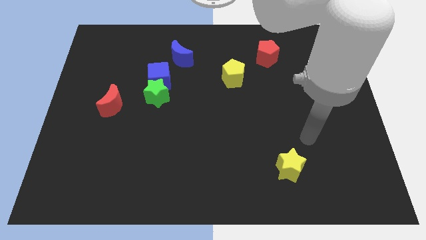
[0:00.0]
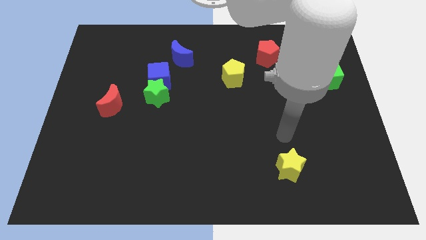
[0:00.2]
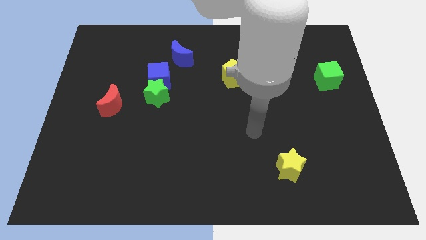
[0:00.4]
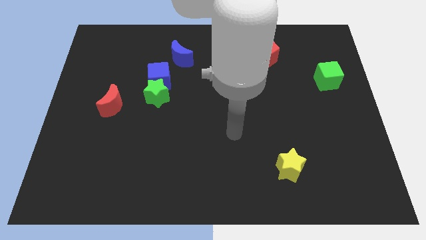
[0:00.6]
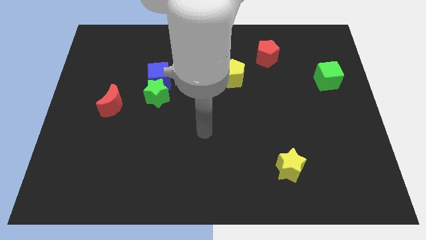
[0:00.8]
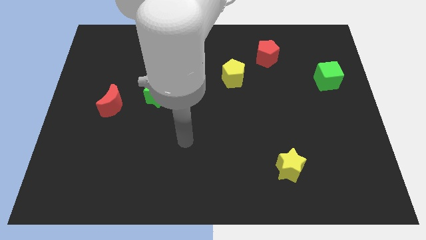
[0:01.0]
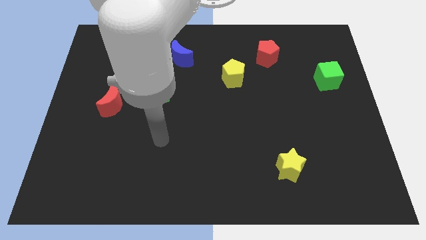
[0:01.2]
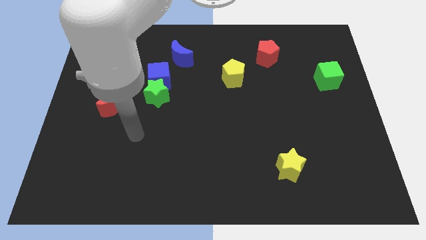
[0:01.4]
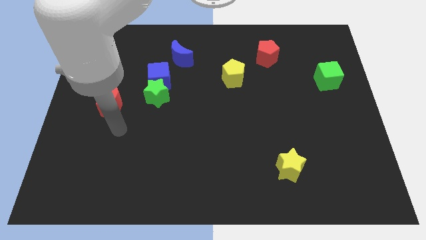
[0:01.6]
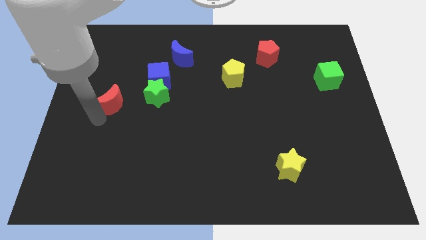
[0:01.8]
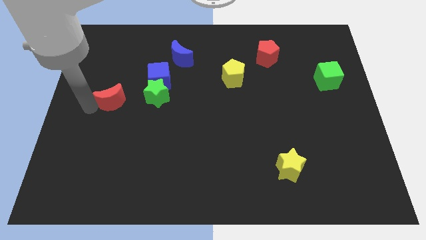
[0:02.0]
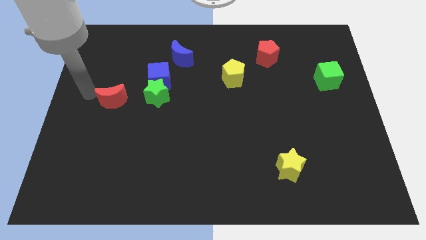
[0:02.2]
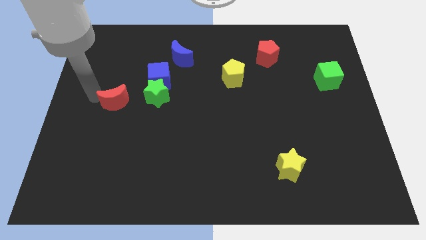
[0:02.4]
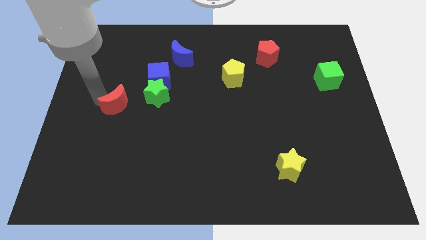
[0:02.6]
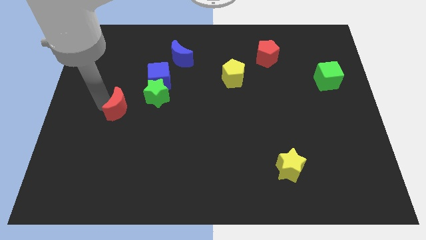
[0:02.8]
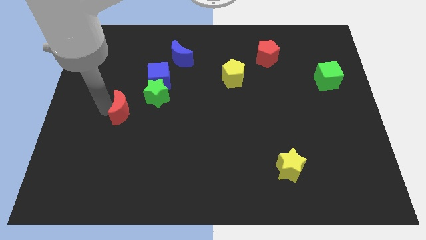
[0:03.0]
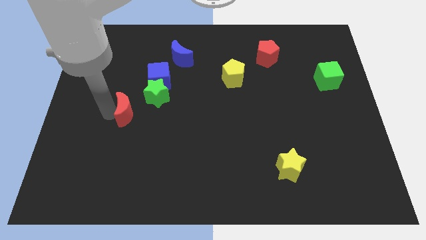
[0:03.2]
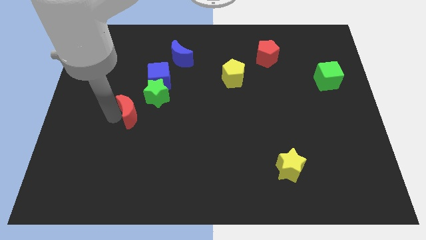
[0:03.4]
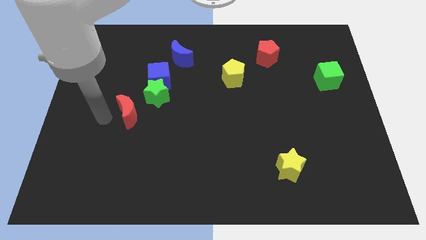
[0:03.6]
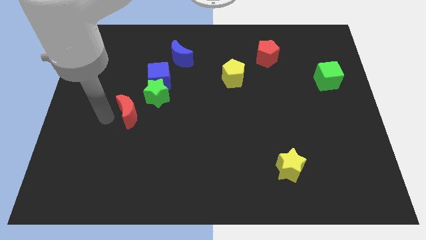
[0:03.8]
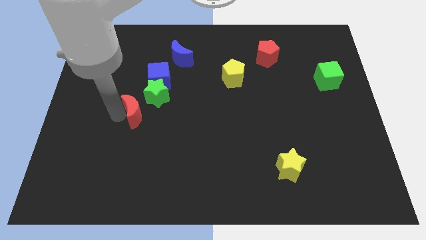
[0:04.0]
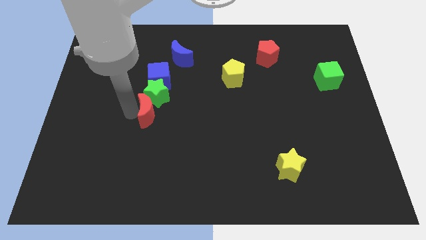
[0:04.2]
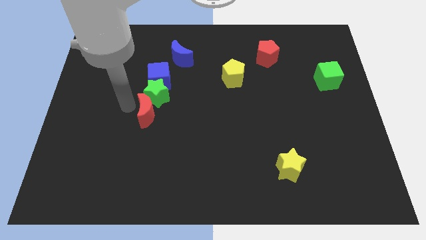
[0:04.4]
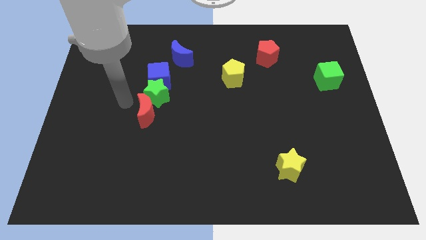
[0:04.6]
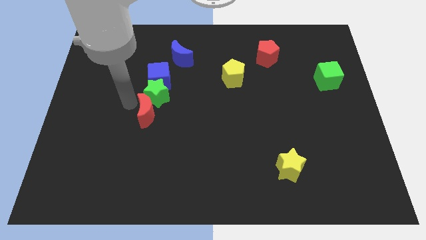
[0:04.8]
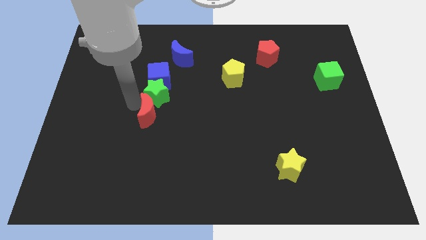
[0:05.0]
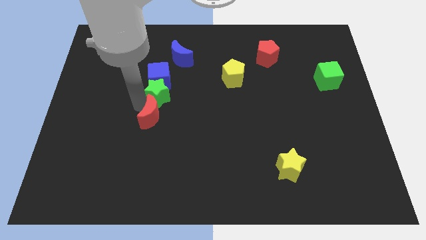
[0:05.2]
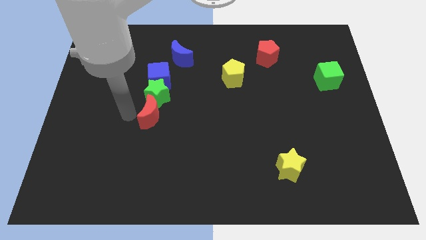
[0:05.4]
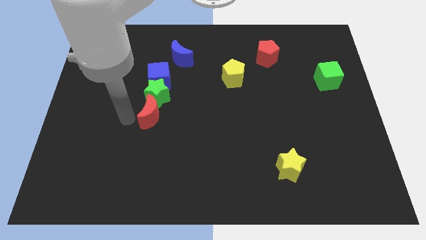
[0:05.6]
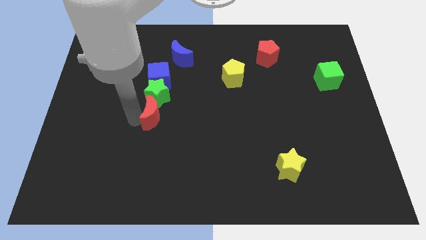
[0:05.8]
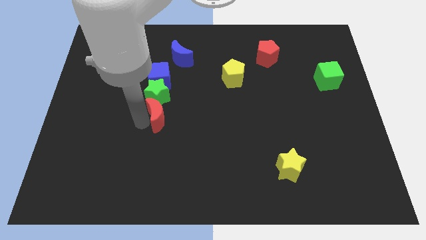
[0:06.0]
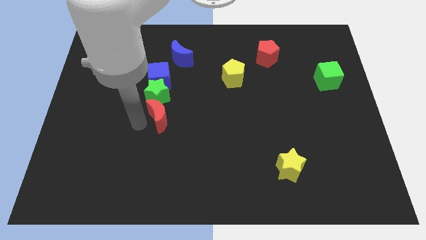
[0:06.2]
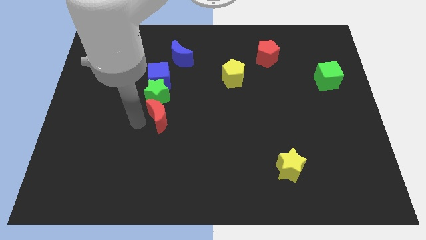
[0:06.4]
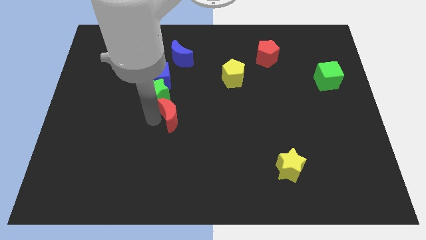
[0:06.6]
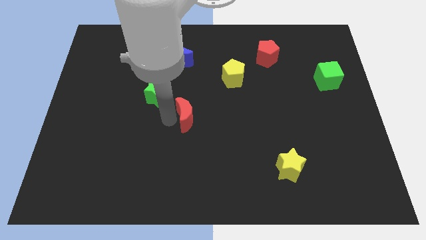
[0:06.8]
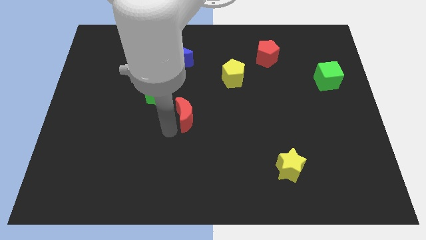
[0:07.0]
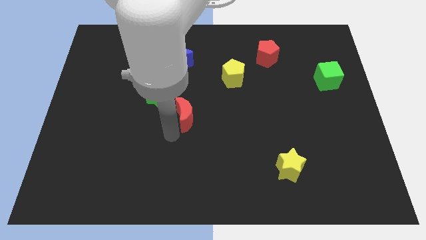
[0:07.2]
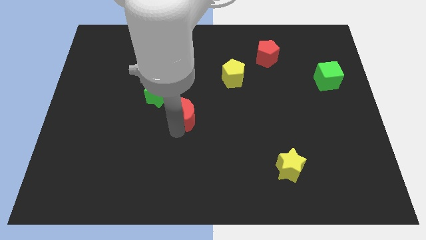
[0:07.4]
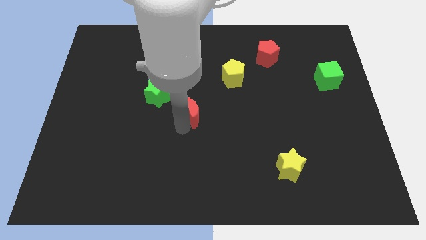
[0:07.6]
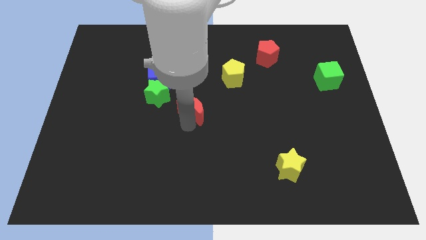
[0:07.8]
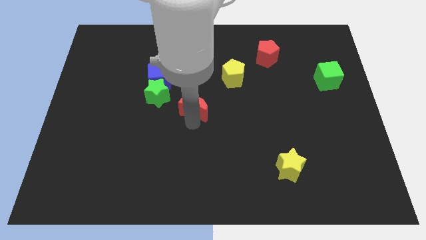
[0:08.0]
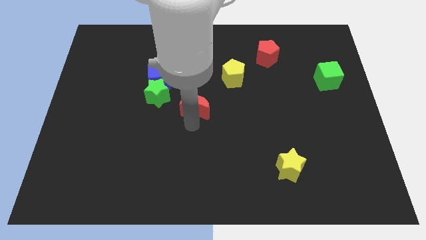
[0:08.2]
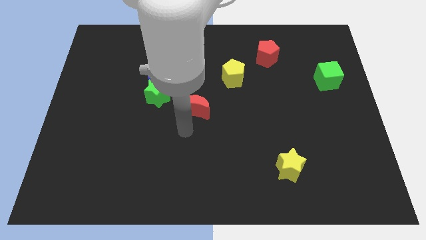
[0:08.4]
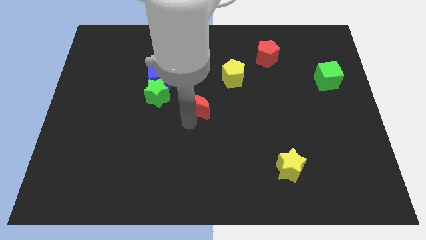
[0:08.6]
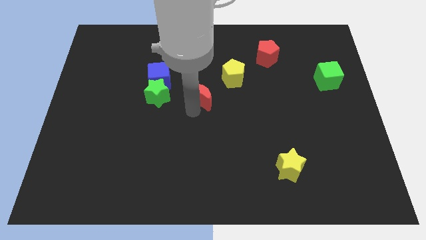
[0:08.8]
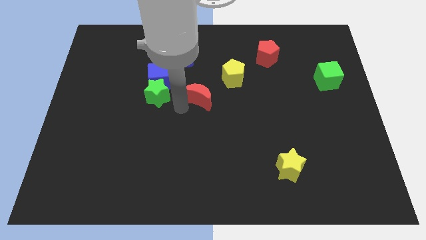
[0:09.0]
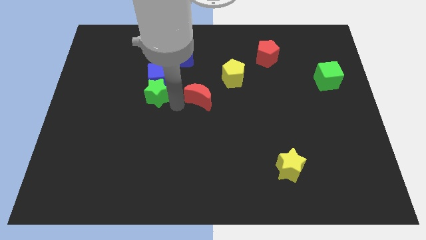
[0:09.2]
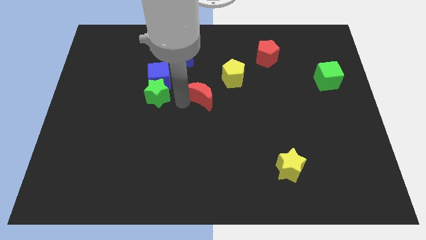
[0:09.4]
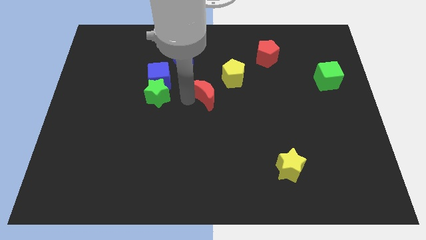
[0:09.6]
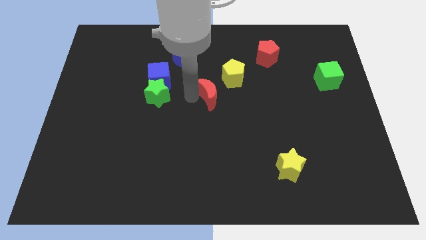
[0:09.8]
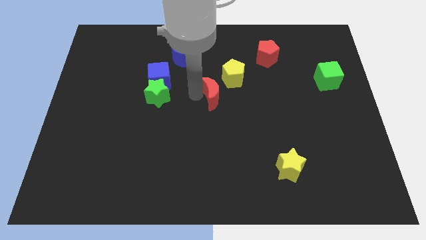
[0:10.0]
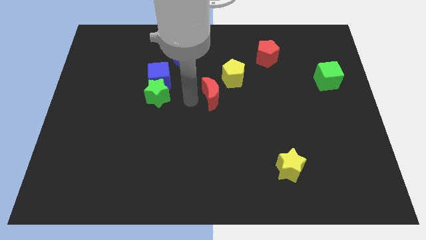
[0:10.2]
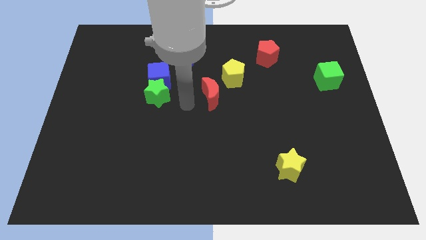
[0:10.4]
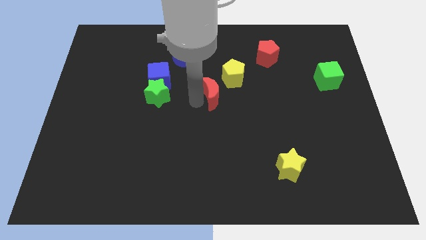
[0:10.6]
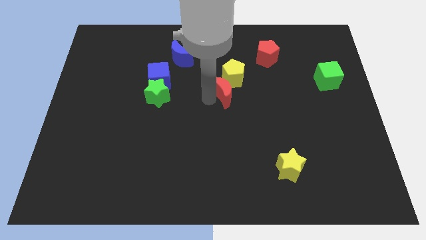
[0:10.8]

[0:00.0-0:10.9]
slide the red moon close to the yellow pentagon

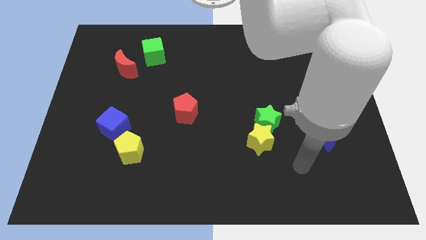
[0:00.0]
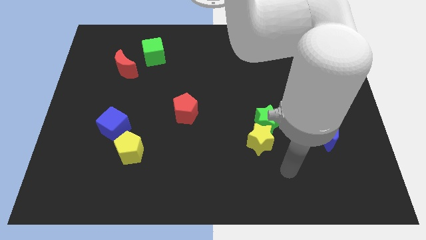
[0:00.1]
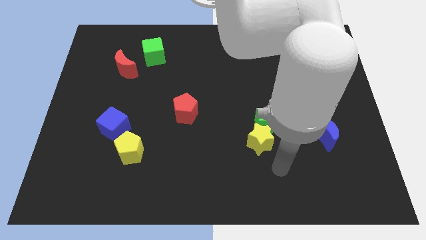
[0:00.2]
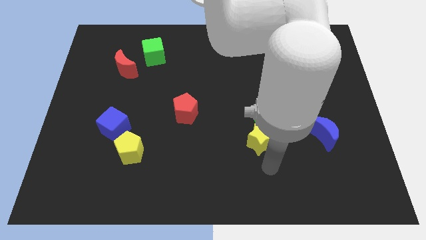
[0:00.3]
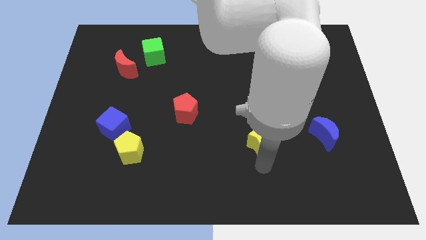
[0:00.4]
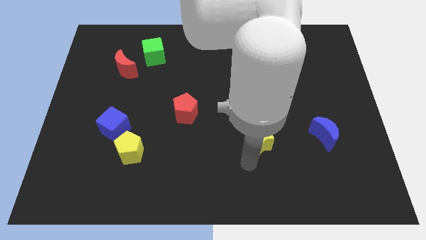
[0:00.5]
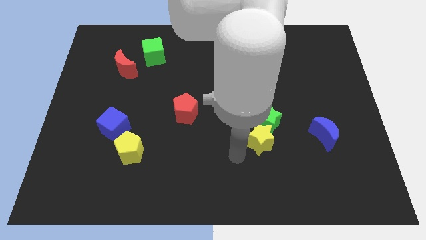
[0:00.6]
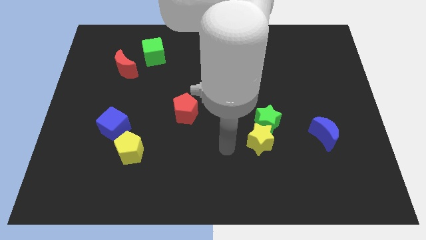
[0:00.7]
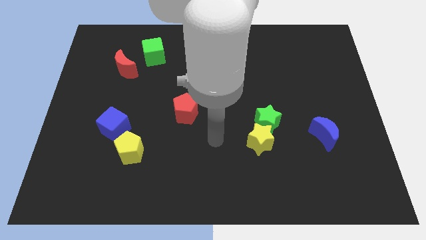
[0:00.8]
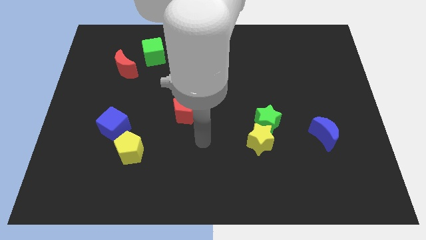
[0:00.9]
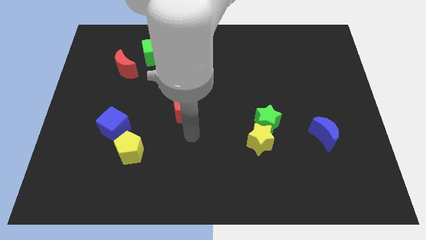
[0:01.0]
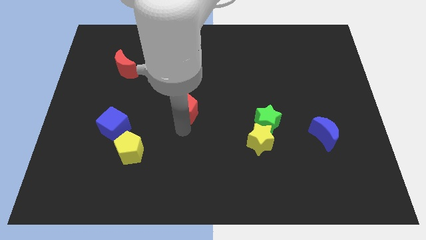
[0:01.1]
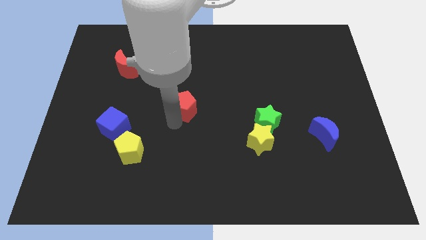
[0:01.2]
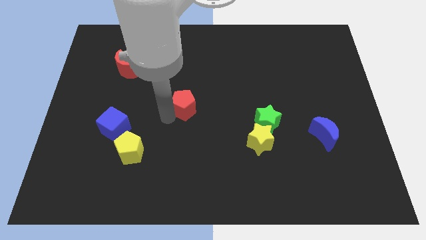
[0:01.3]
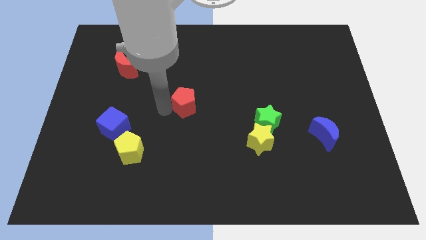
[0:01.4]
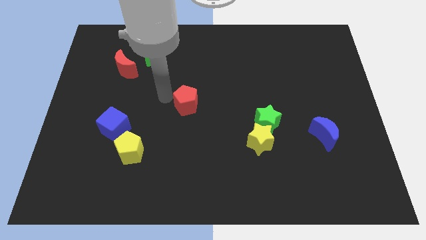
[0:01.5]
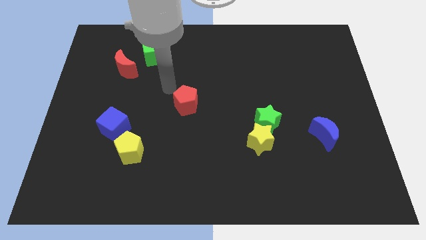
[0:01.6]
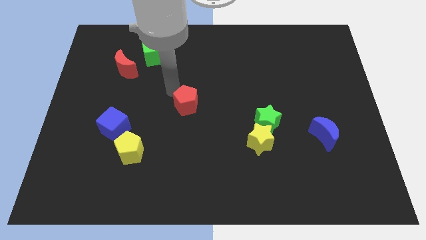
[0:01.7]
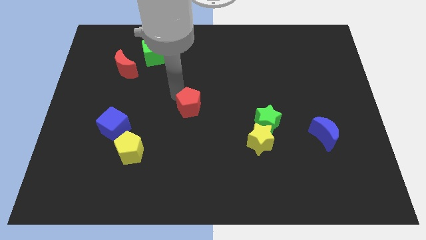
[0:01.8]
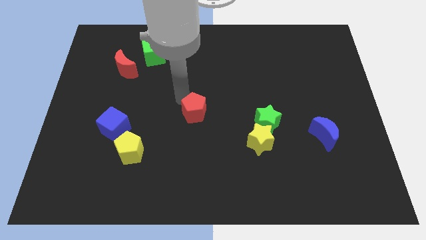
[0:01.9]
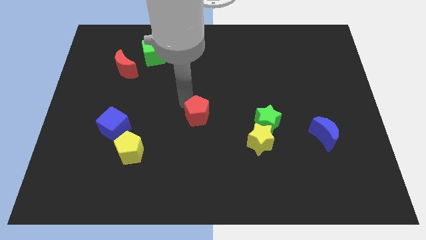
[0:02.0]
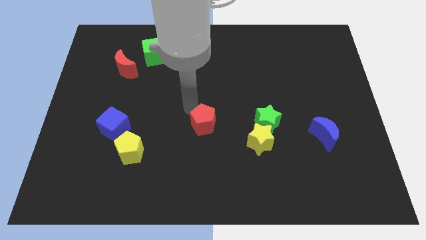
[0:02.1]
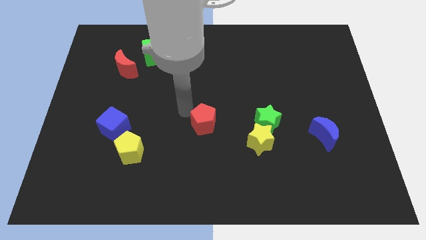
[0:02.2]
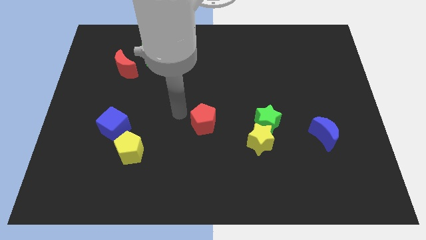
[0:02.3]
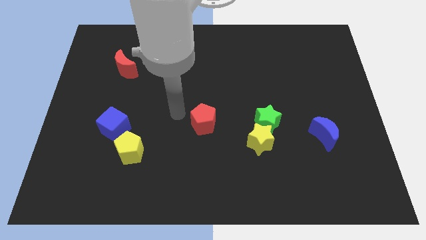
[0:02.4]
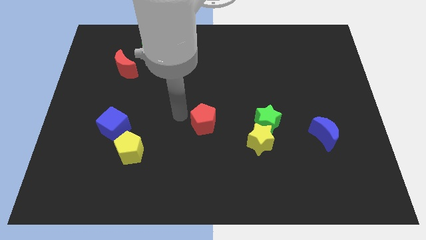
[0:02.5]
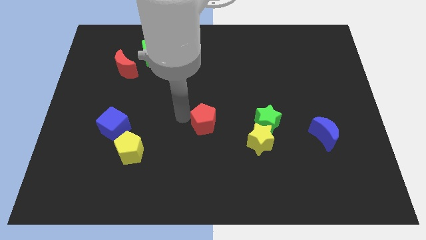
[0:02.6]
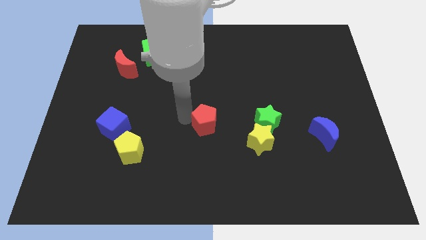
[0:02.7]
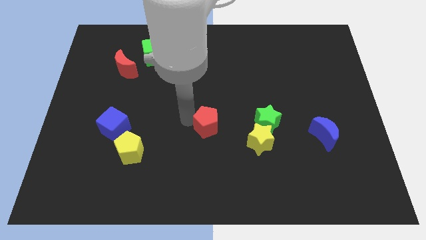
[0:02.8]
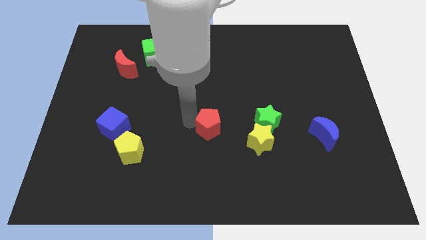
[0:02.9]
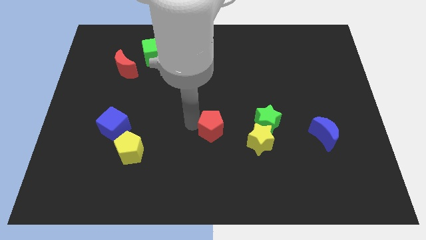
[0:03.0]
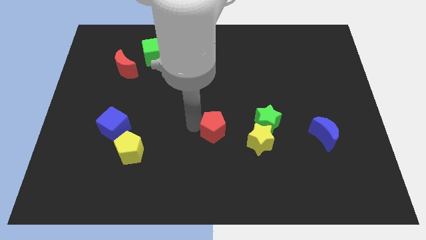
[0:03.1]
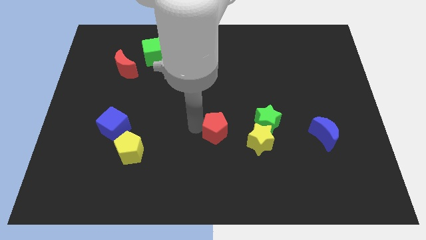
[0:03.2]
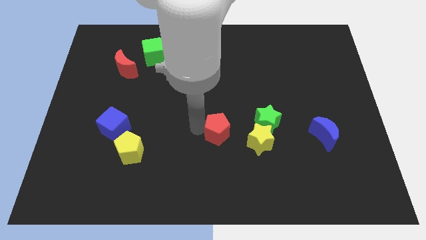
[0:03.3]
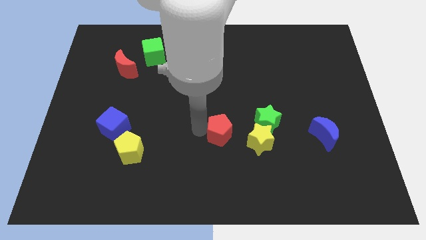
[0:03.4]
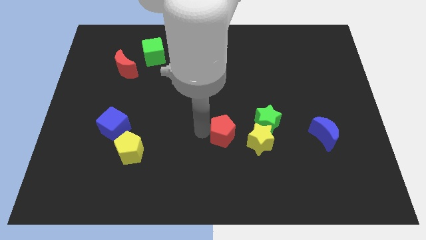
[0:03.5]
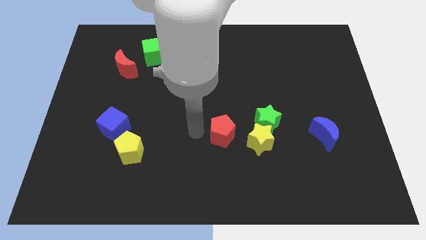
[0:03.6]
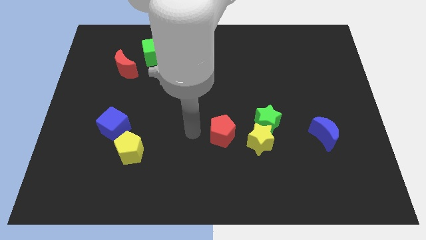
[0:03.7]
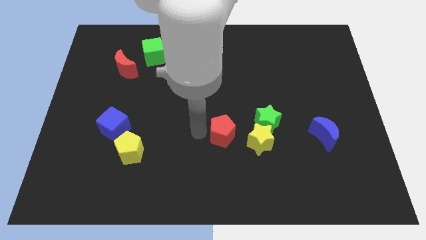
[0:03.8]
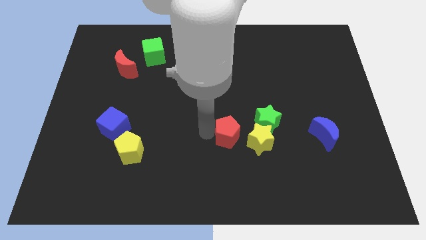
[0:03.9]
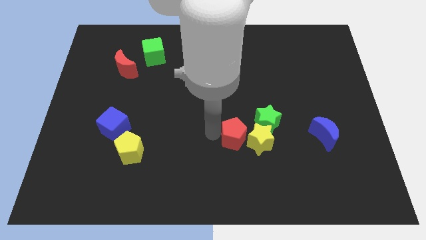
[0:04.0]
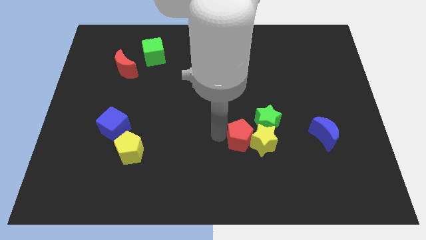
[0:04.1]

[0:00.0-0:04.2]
move the red pentagon close to the yellow star
